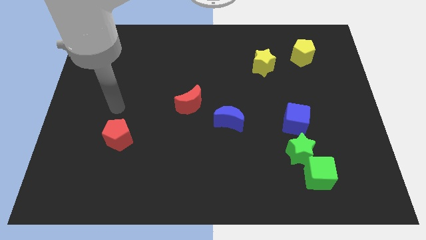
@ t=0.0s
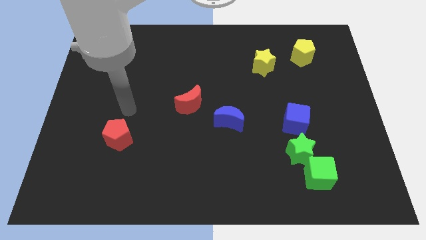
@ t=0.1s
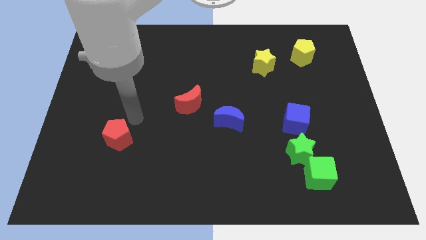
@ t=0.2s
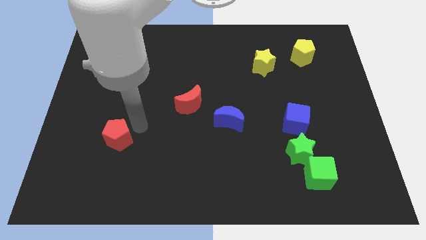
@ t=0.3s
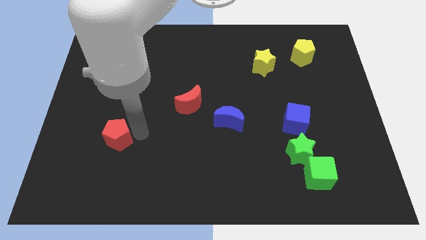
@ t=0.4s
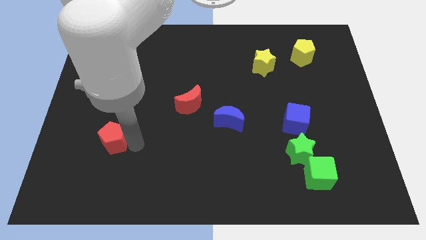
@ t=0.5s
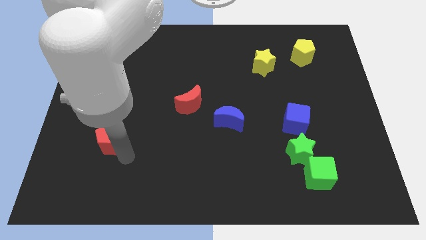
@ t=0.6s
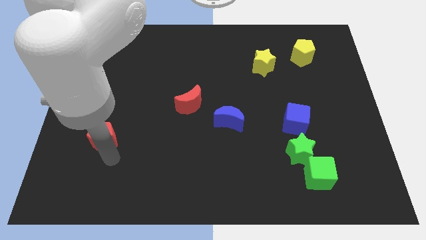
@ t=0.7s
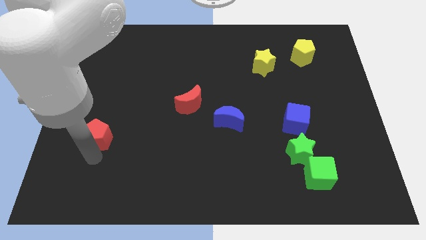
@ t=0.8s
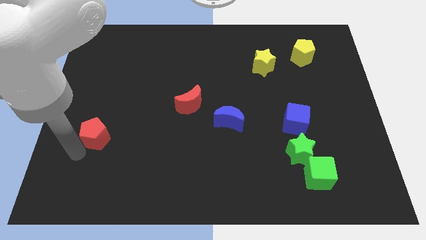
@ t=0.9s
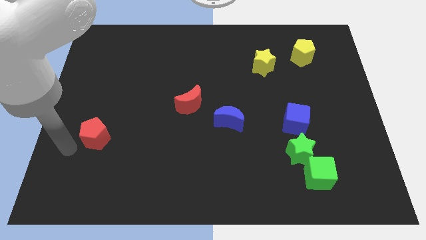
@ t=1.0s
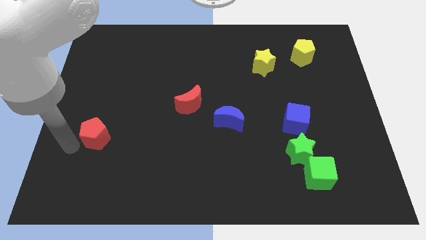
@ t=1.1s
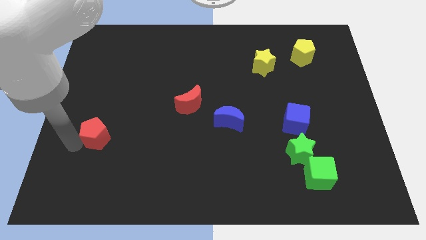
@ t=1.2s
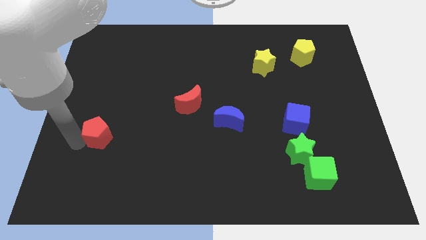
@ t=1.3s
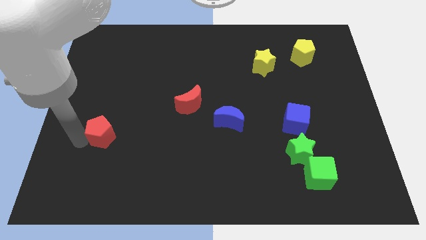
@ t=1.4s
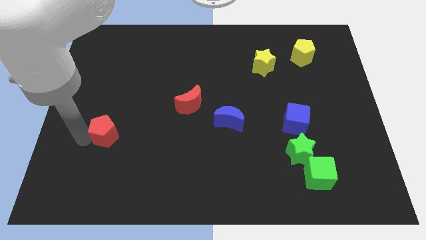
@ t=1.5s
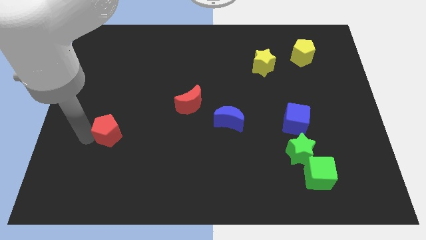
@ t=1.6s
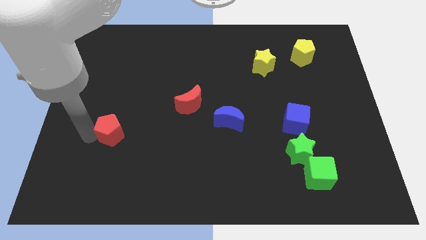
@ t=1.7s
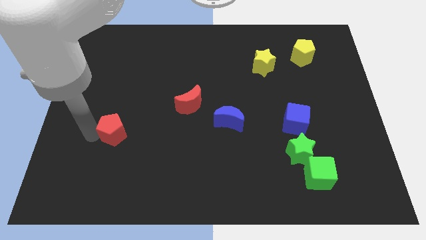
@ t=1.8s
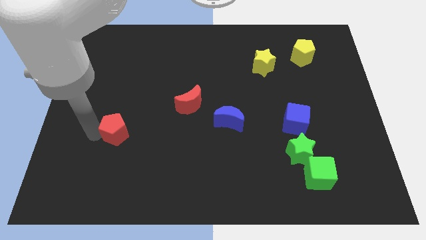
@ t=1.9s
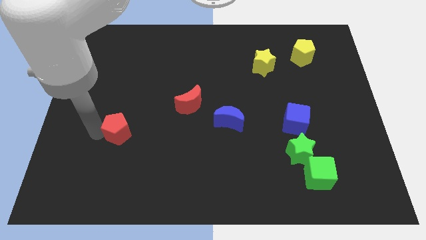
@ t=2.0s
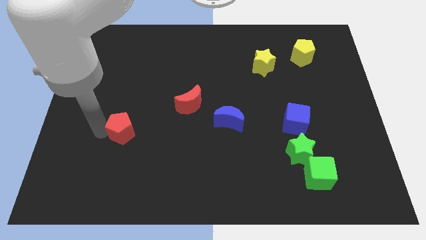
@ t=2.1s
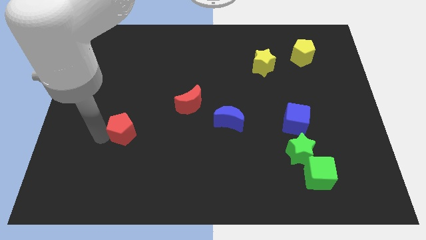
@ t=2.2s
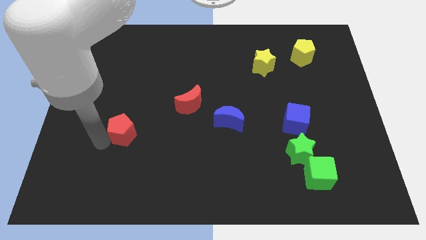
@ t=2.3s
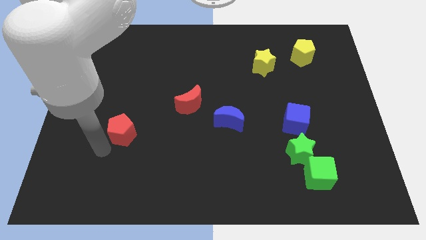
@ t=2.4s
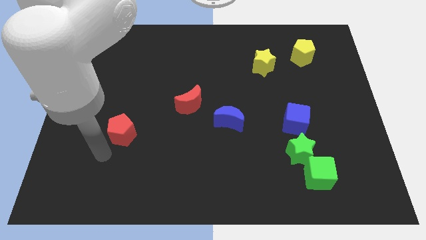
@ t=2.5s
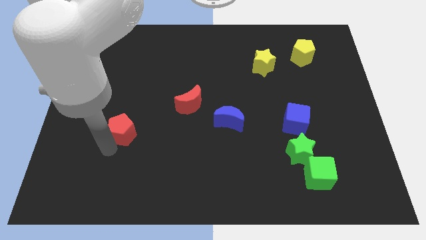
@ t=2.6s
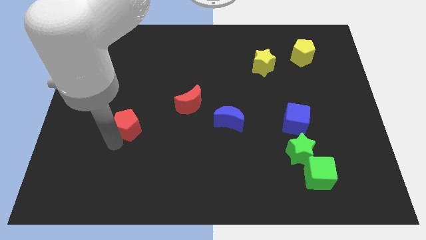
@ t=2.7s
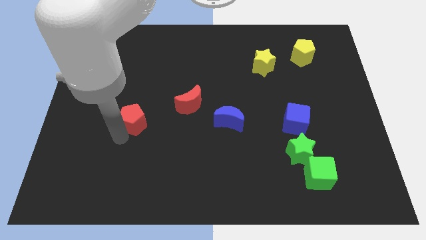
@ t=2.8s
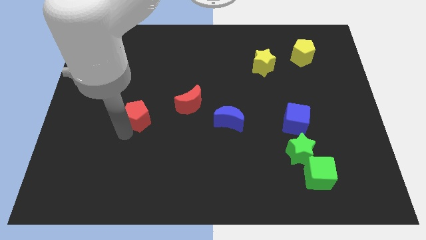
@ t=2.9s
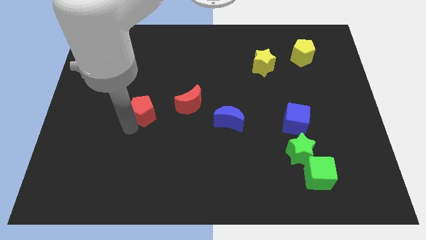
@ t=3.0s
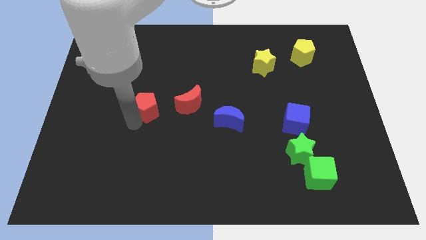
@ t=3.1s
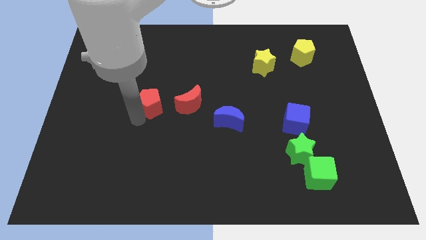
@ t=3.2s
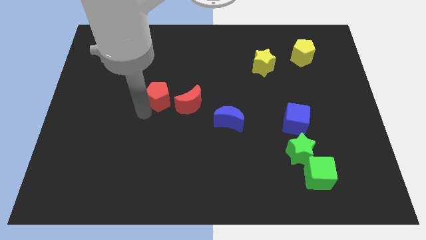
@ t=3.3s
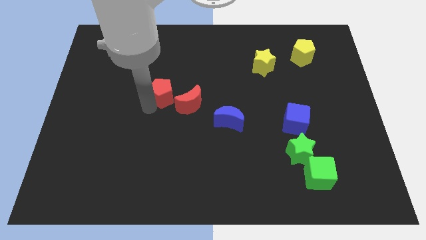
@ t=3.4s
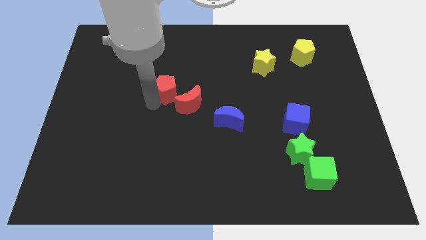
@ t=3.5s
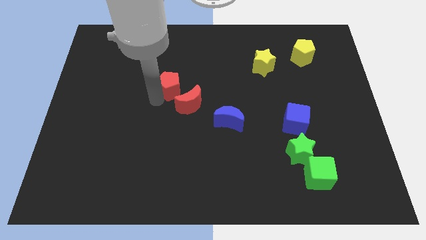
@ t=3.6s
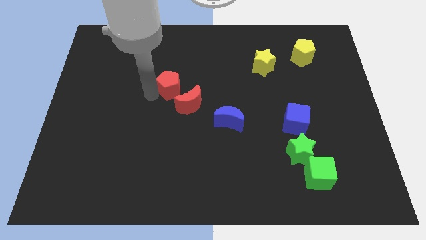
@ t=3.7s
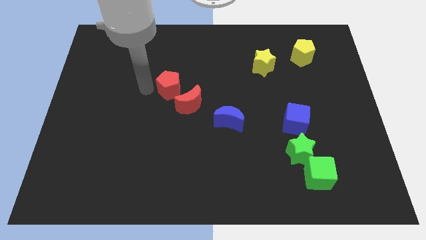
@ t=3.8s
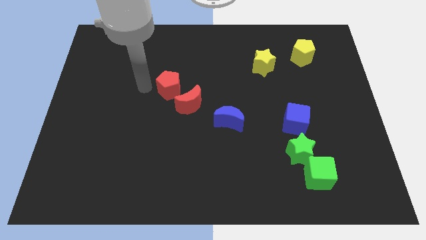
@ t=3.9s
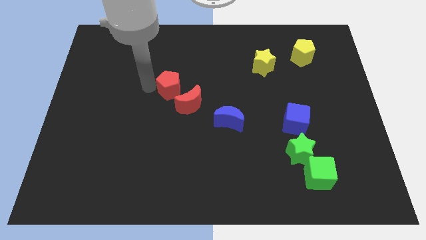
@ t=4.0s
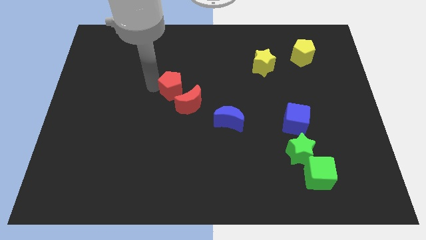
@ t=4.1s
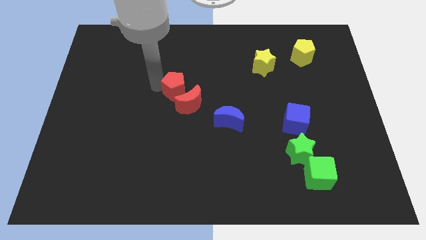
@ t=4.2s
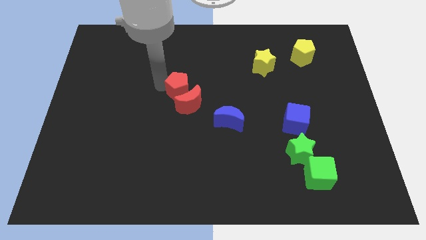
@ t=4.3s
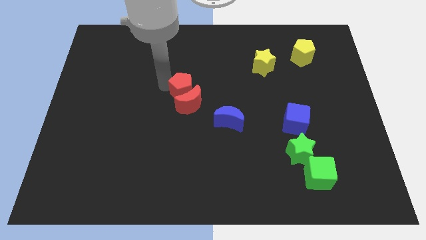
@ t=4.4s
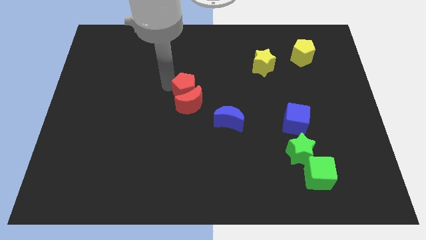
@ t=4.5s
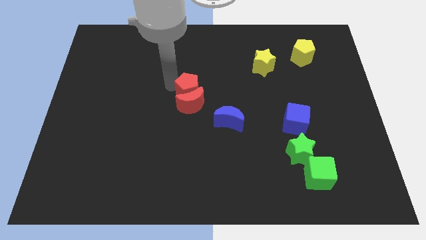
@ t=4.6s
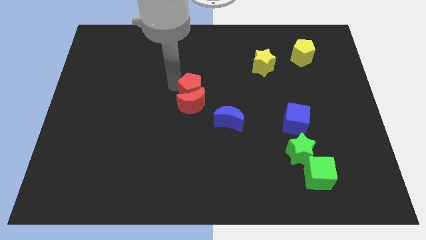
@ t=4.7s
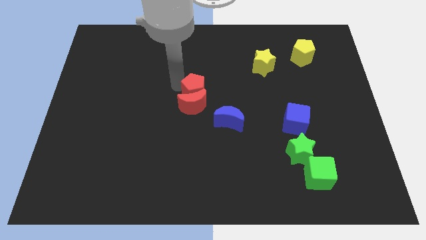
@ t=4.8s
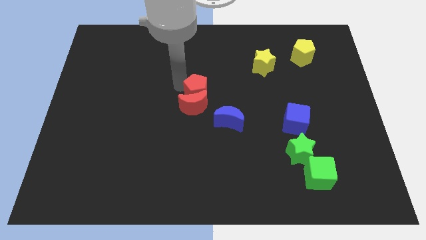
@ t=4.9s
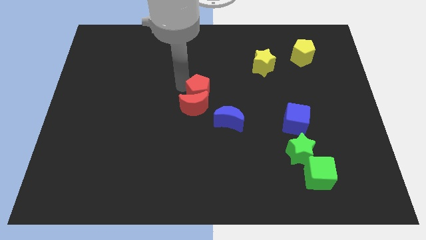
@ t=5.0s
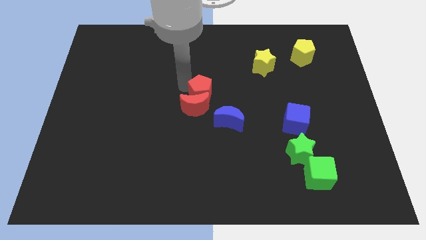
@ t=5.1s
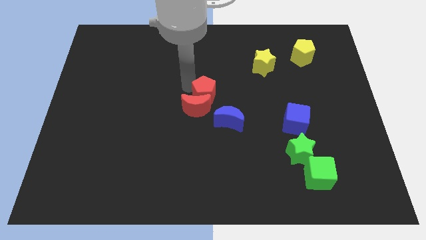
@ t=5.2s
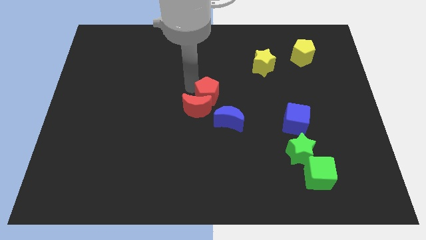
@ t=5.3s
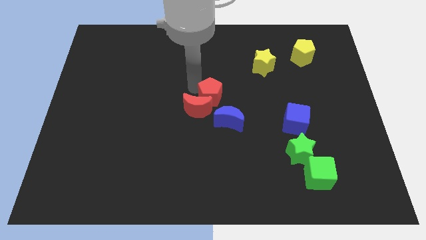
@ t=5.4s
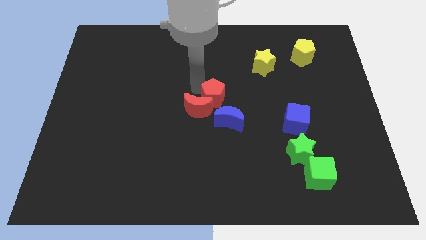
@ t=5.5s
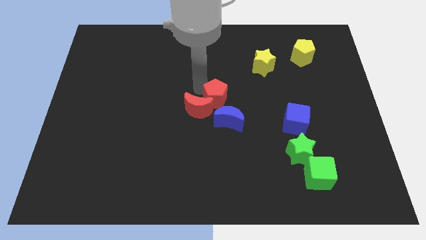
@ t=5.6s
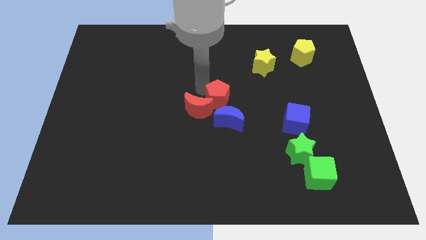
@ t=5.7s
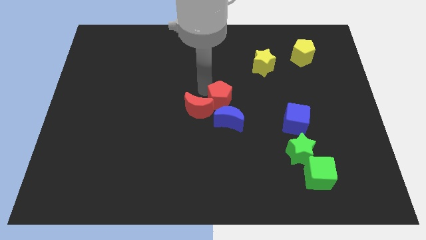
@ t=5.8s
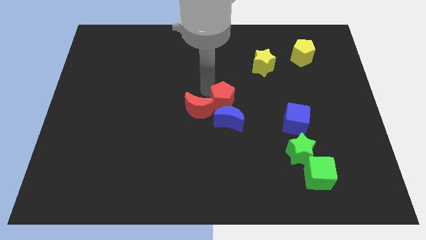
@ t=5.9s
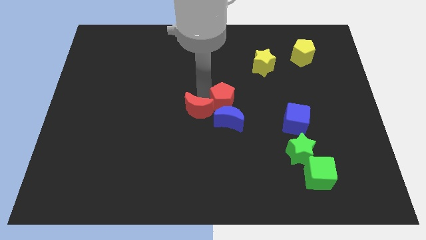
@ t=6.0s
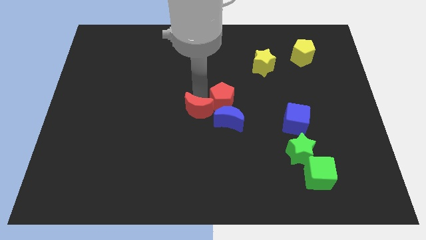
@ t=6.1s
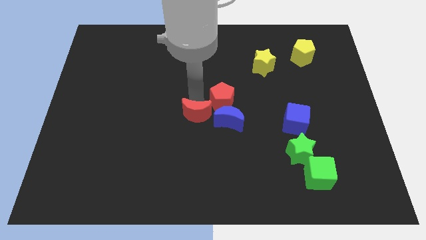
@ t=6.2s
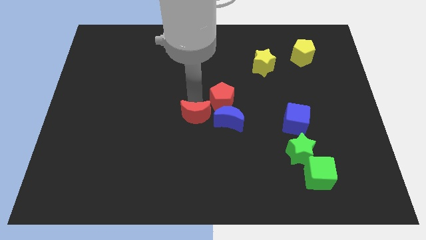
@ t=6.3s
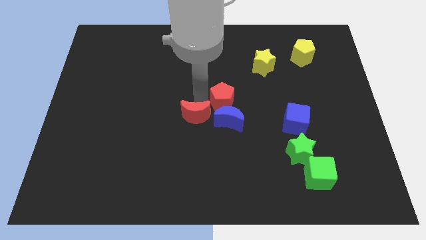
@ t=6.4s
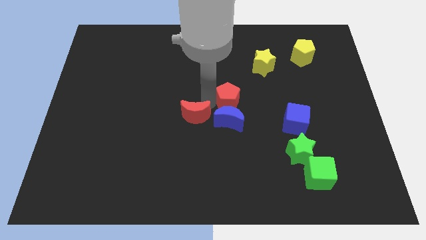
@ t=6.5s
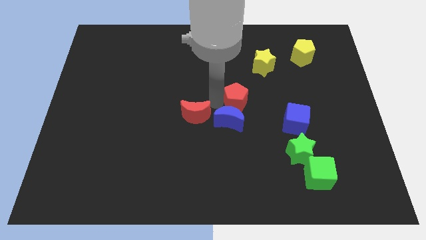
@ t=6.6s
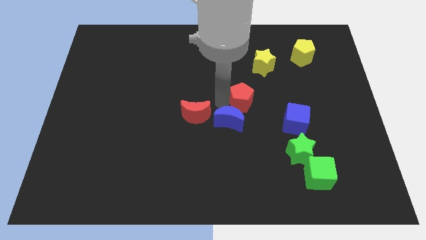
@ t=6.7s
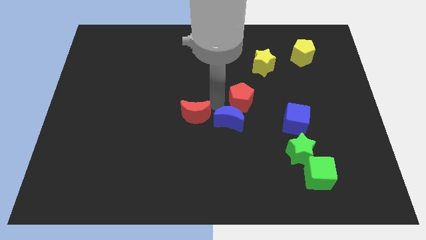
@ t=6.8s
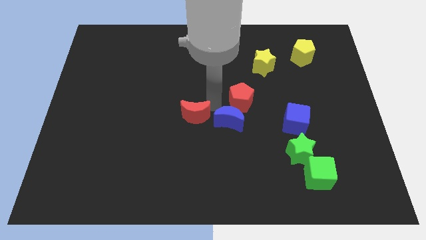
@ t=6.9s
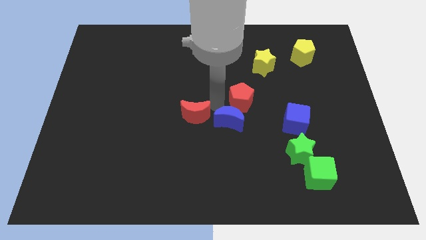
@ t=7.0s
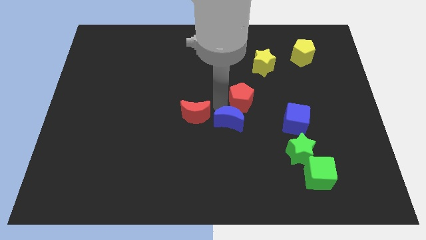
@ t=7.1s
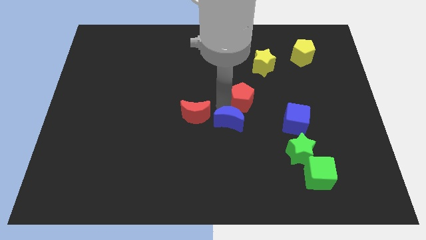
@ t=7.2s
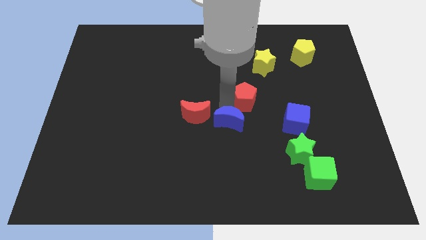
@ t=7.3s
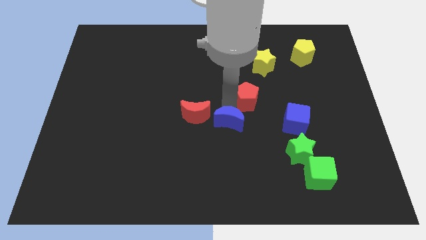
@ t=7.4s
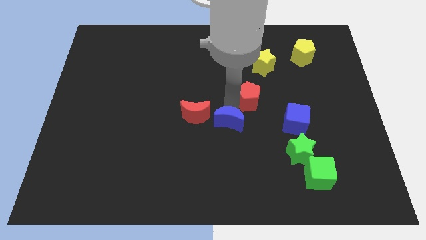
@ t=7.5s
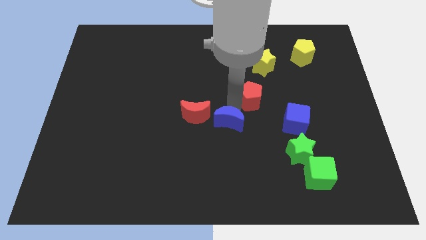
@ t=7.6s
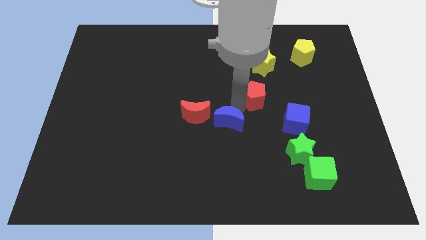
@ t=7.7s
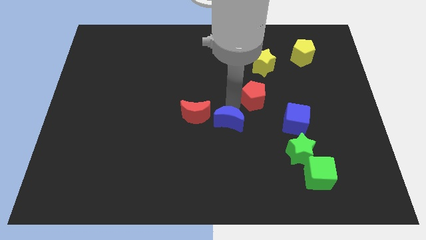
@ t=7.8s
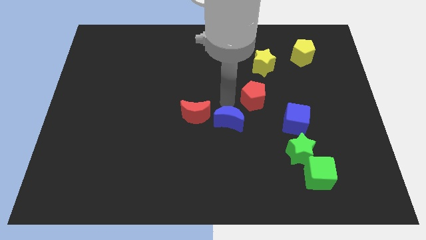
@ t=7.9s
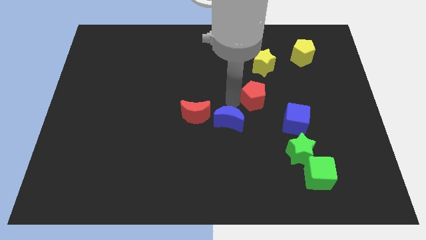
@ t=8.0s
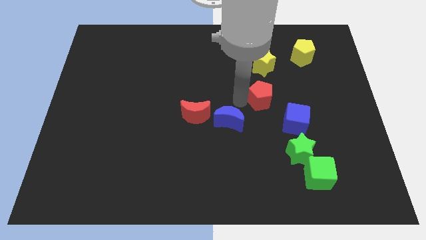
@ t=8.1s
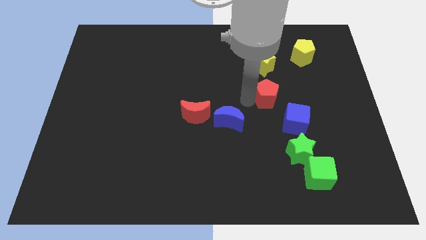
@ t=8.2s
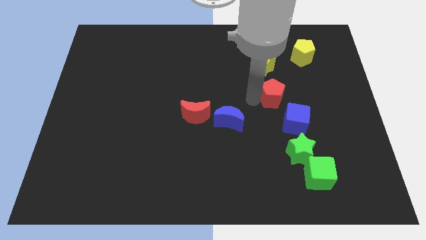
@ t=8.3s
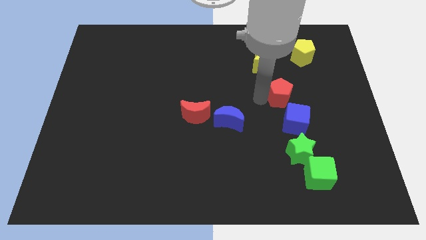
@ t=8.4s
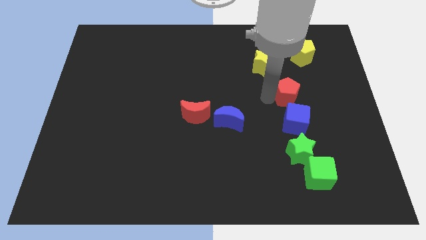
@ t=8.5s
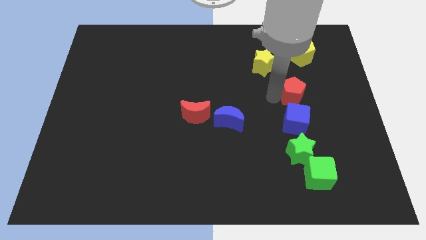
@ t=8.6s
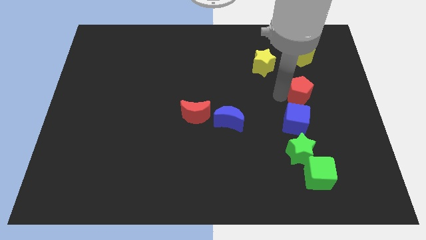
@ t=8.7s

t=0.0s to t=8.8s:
push the red pentagon to the top right side of the blue cube
